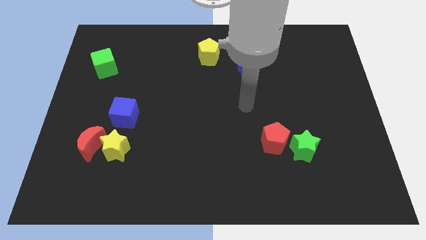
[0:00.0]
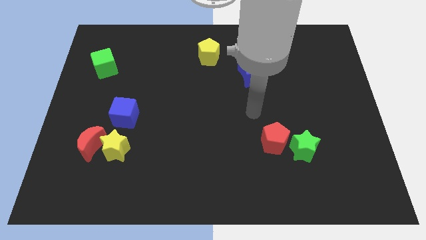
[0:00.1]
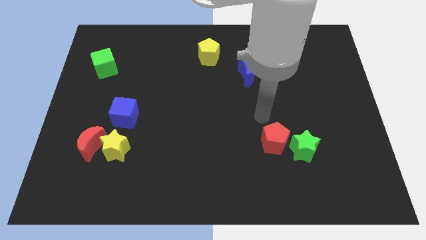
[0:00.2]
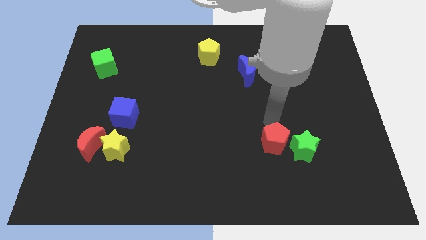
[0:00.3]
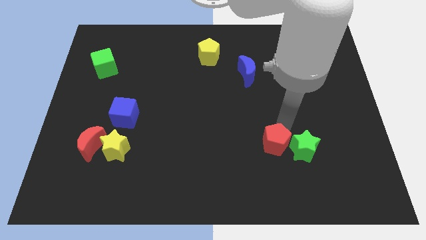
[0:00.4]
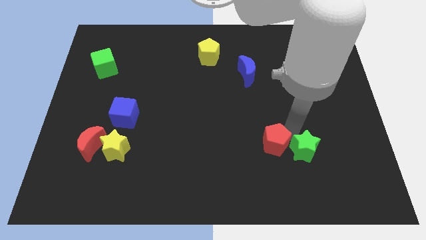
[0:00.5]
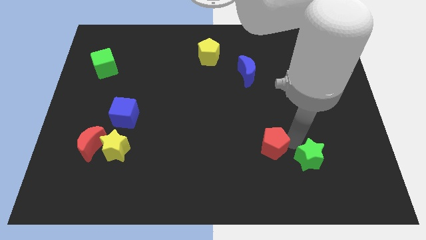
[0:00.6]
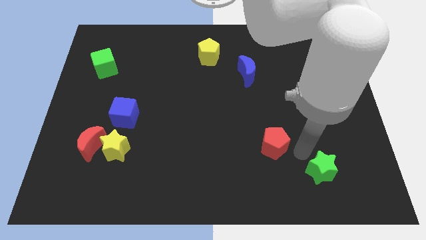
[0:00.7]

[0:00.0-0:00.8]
move the red pentagon away from the green star

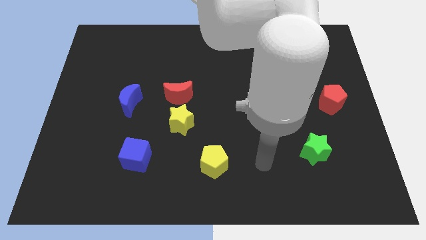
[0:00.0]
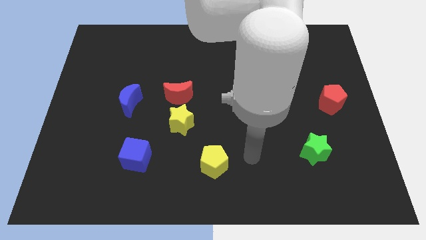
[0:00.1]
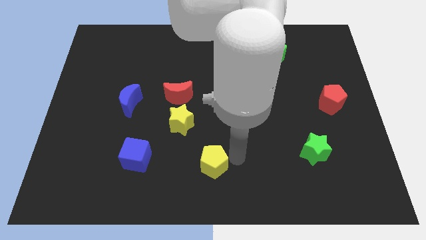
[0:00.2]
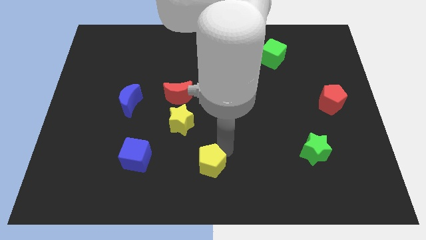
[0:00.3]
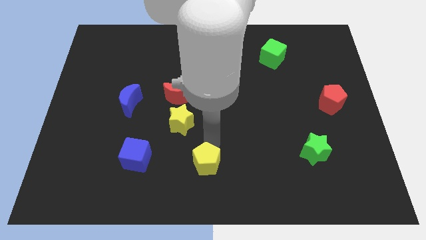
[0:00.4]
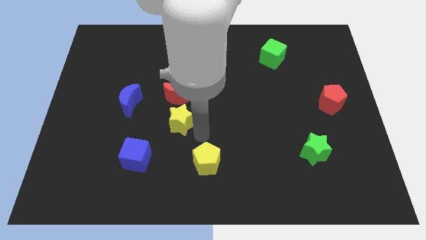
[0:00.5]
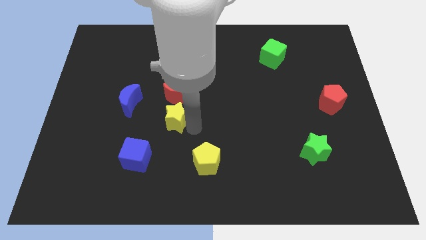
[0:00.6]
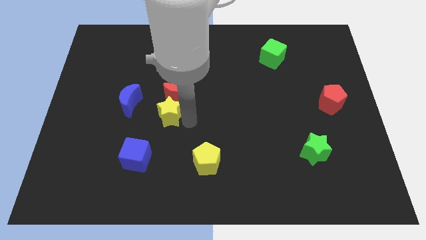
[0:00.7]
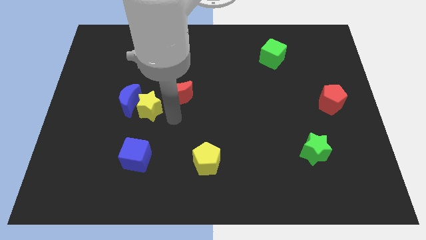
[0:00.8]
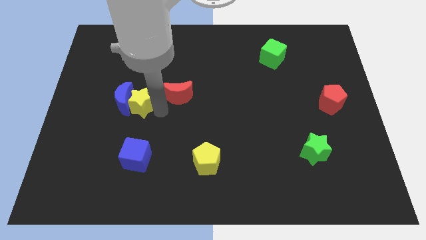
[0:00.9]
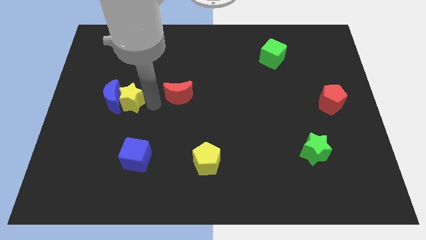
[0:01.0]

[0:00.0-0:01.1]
separate the red moon from the yellow star

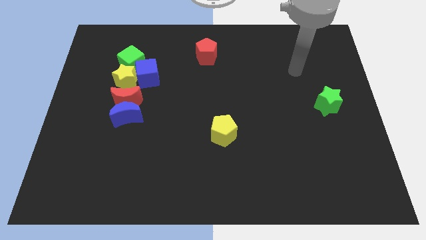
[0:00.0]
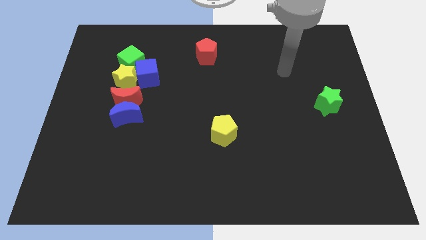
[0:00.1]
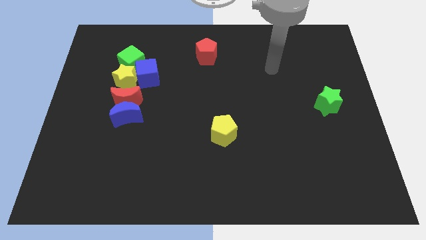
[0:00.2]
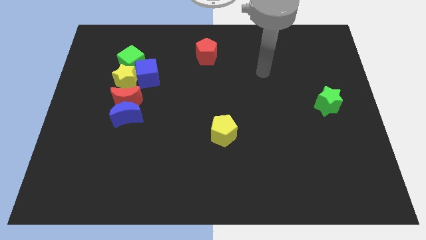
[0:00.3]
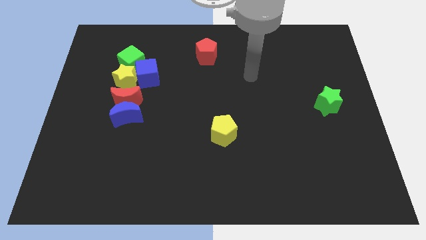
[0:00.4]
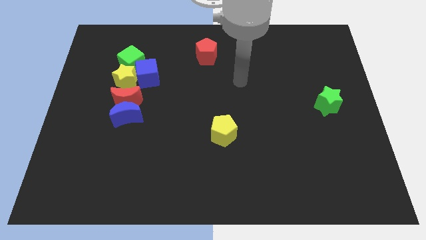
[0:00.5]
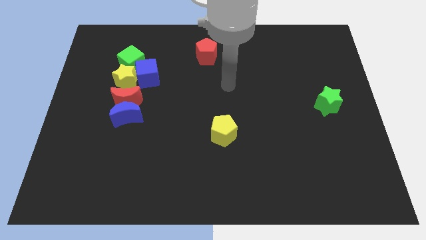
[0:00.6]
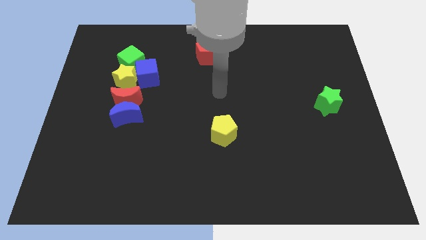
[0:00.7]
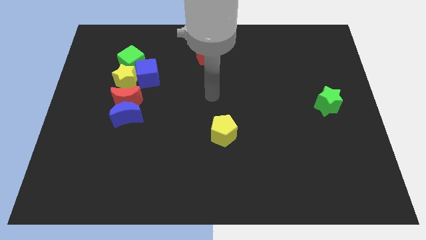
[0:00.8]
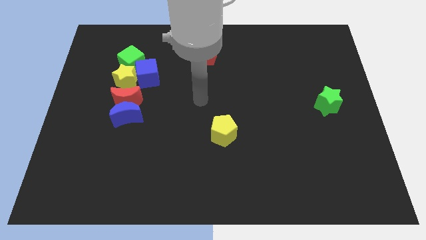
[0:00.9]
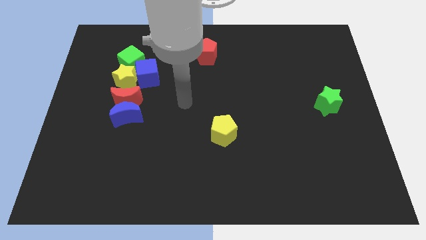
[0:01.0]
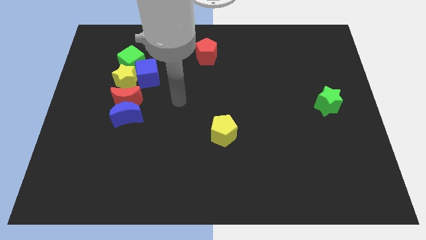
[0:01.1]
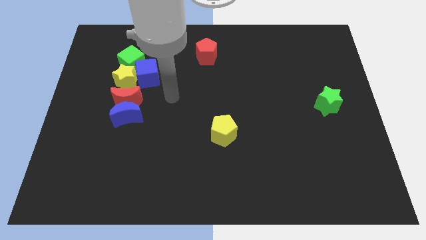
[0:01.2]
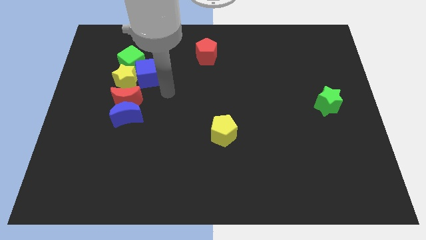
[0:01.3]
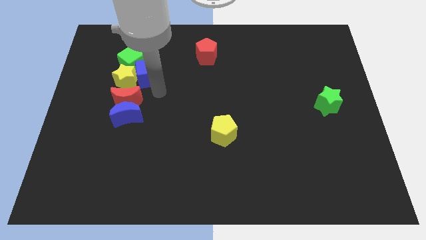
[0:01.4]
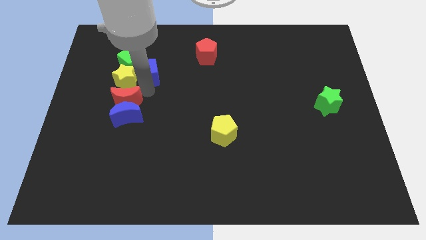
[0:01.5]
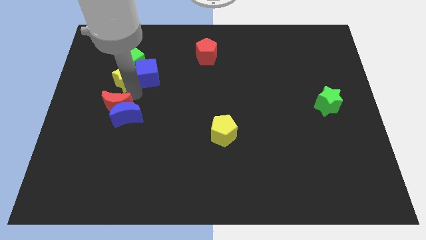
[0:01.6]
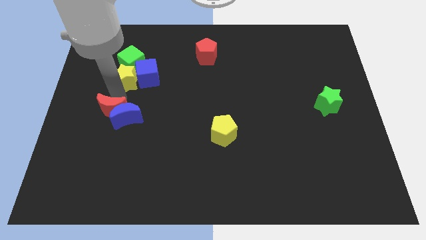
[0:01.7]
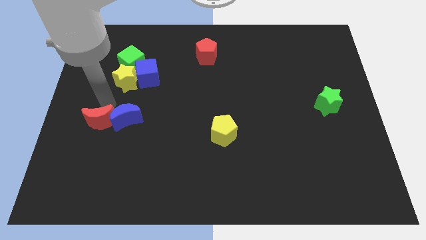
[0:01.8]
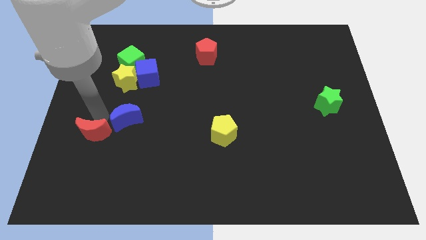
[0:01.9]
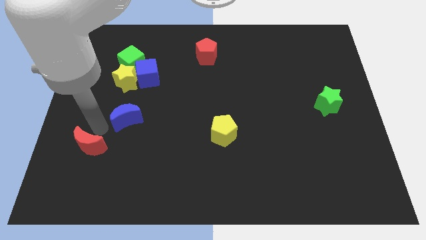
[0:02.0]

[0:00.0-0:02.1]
separate the blue moon from the red moon

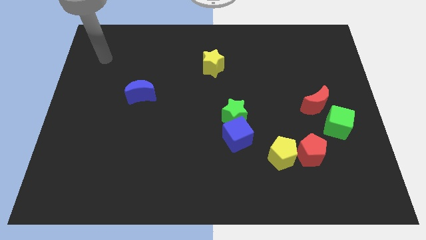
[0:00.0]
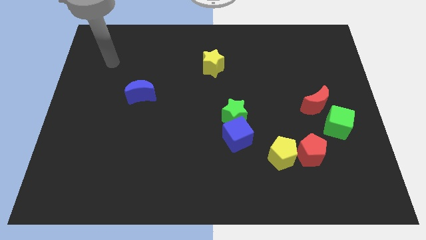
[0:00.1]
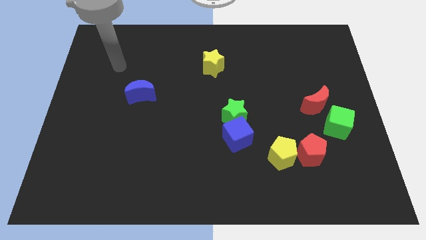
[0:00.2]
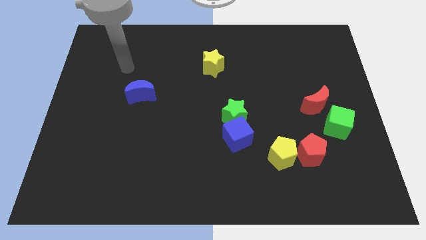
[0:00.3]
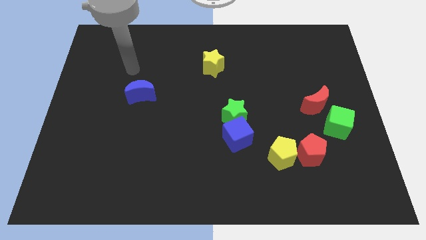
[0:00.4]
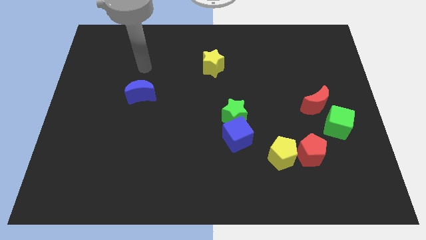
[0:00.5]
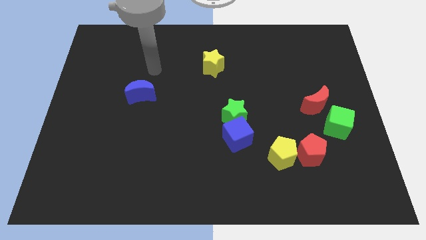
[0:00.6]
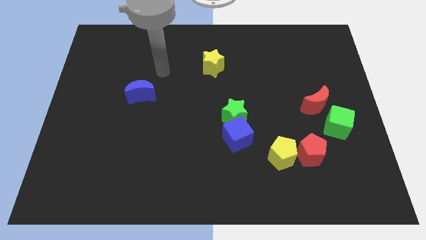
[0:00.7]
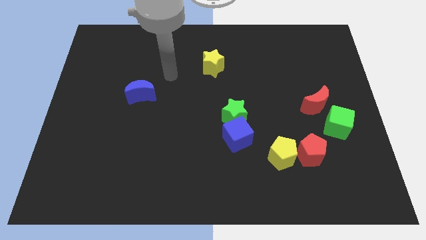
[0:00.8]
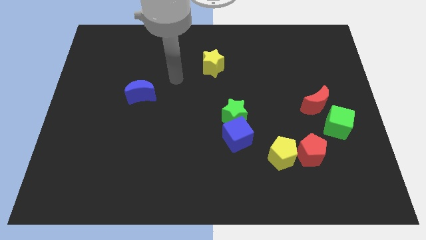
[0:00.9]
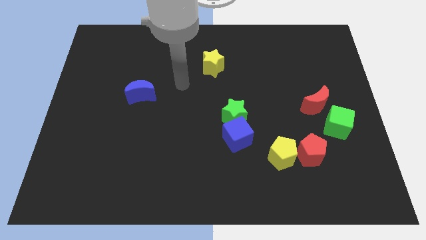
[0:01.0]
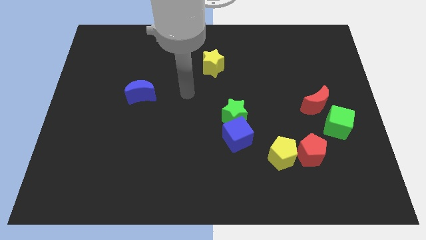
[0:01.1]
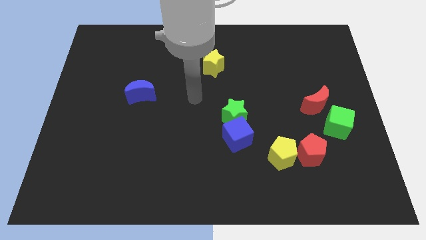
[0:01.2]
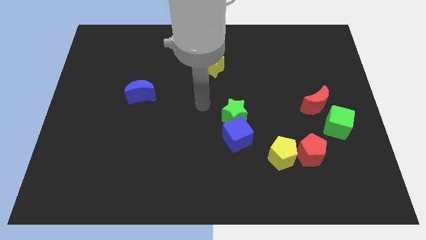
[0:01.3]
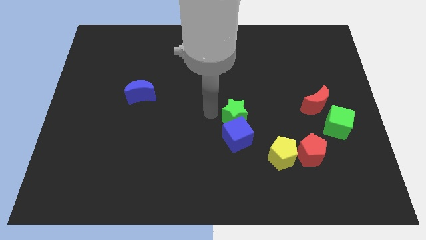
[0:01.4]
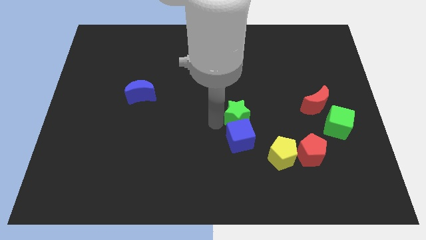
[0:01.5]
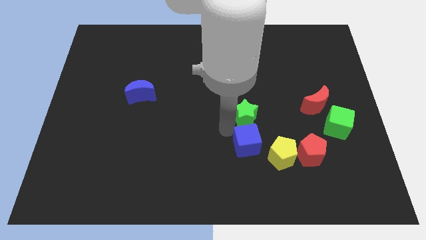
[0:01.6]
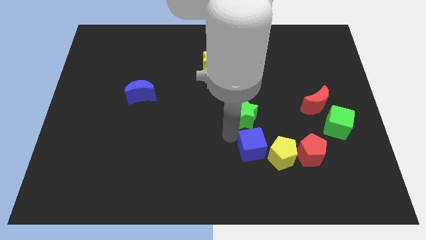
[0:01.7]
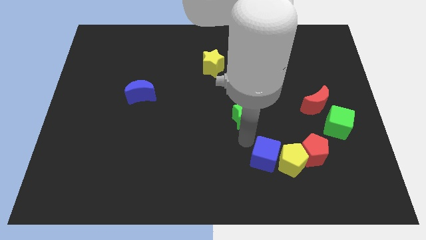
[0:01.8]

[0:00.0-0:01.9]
move the green star away from the blue cube

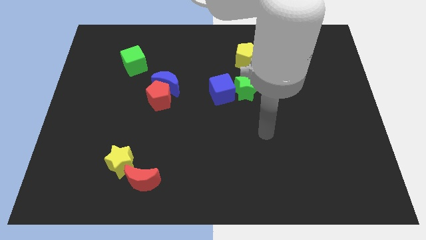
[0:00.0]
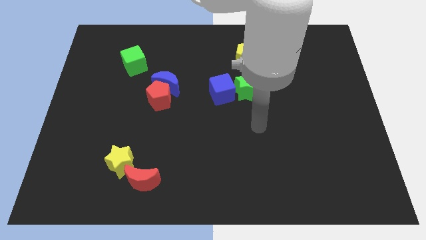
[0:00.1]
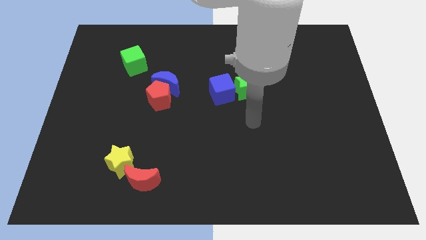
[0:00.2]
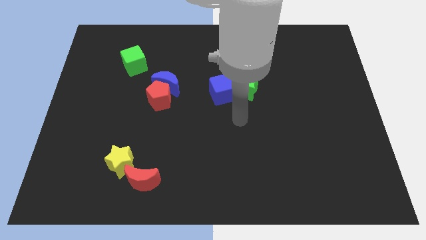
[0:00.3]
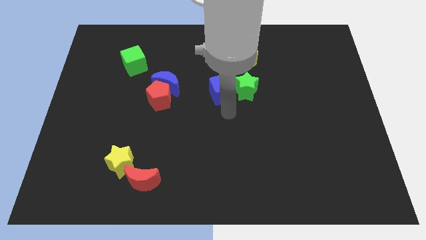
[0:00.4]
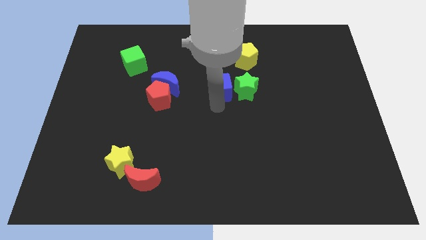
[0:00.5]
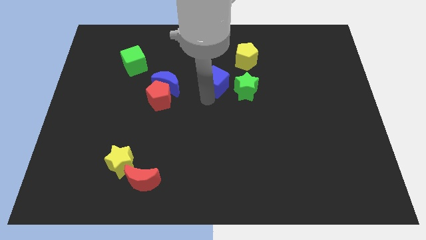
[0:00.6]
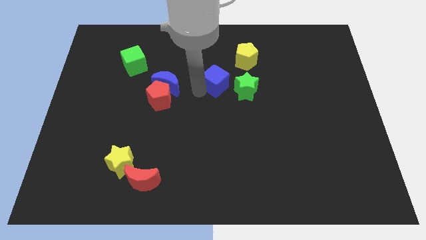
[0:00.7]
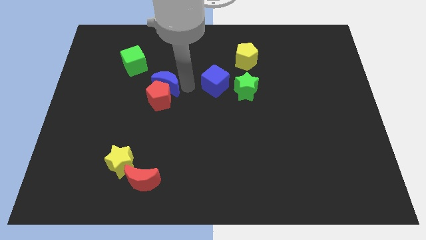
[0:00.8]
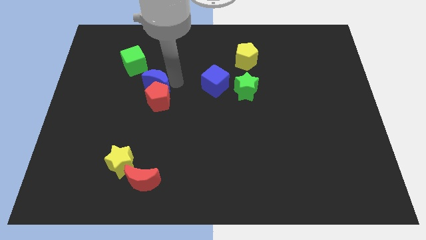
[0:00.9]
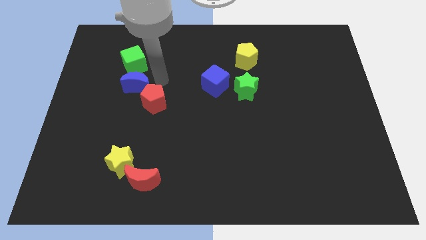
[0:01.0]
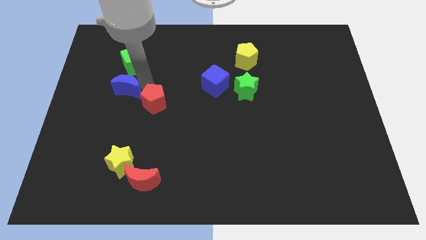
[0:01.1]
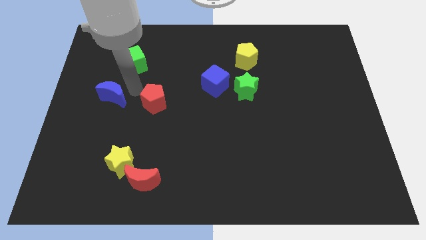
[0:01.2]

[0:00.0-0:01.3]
move the red pentagon away from the blue moon

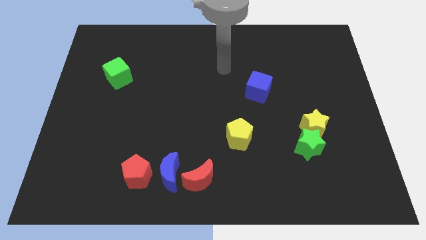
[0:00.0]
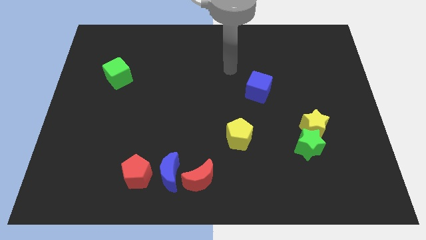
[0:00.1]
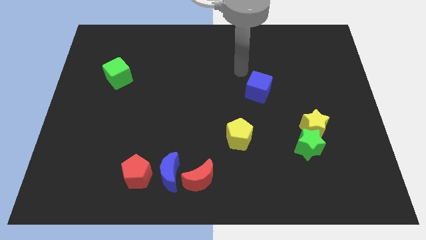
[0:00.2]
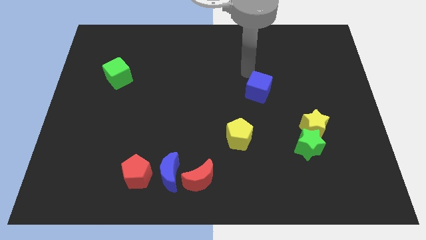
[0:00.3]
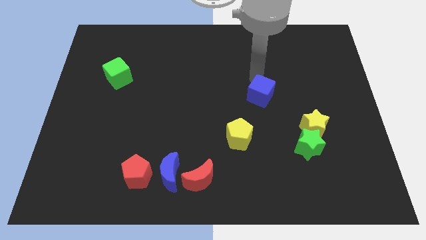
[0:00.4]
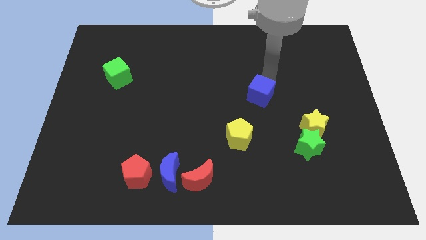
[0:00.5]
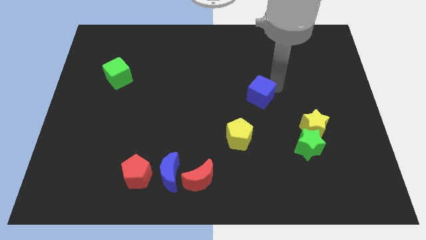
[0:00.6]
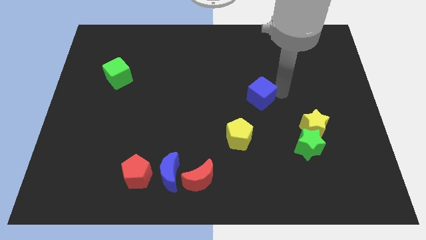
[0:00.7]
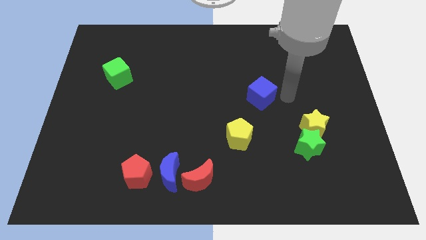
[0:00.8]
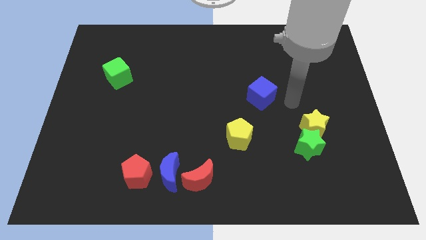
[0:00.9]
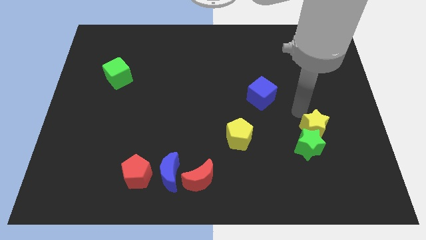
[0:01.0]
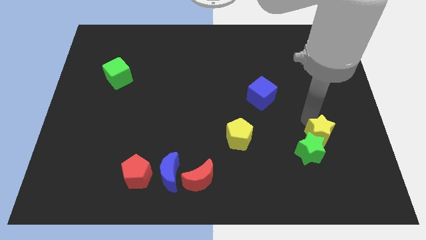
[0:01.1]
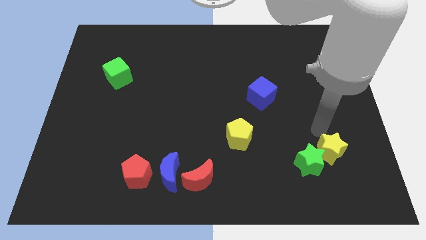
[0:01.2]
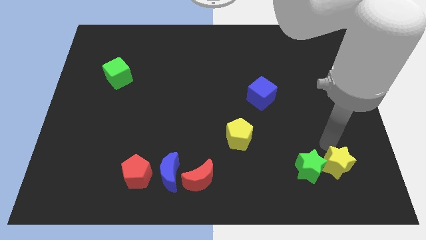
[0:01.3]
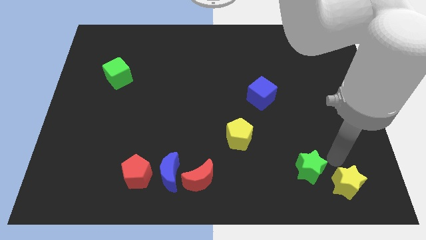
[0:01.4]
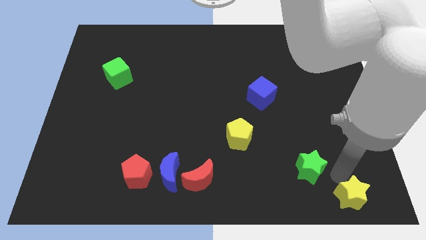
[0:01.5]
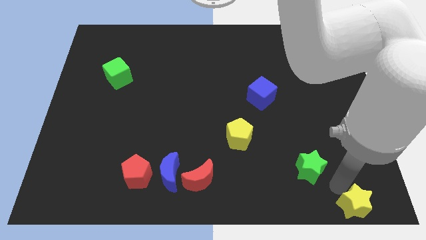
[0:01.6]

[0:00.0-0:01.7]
separate the green star from the yellow star

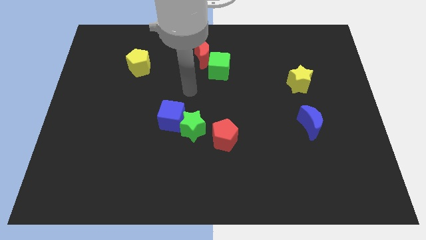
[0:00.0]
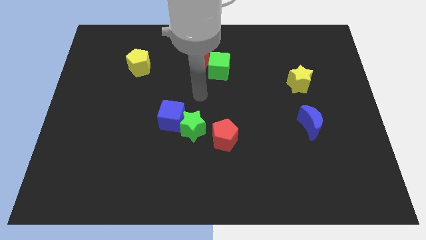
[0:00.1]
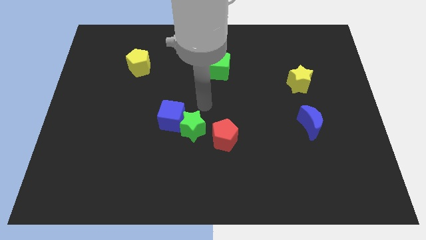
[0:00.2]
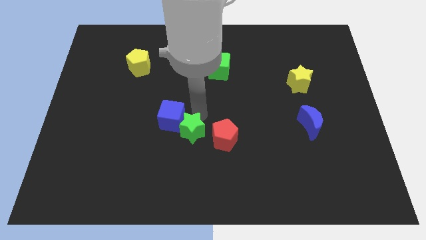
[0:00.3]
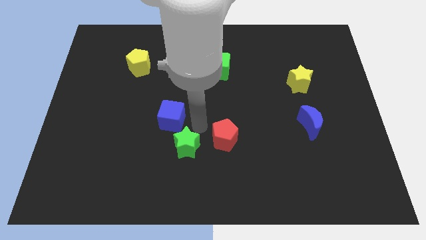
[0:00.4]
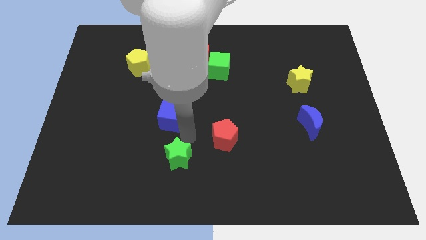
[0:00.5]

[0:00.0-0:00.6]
separate the blue cube from the green star
